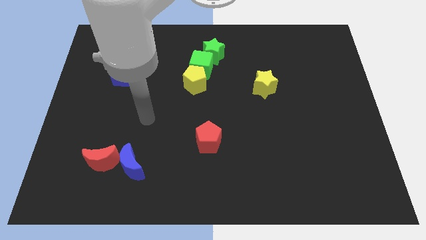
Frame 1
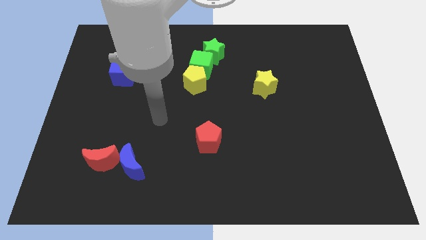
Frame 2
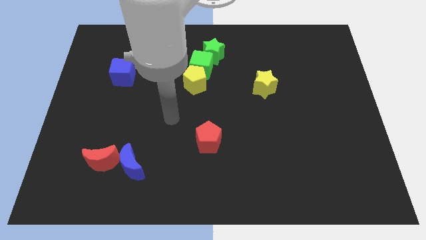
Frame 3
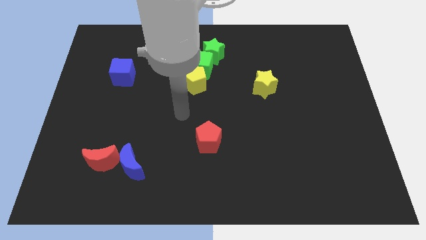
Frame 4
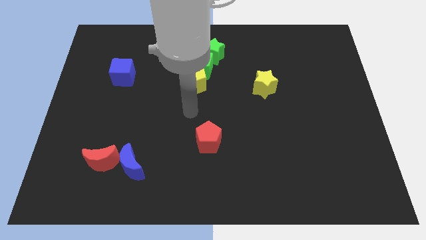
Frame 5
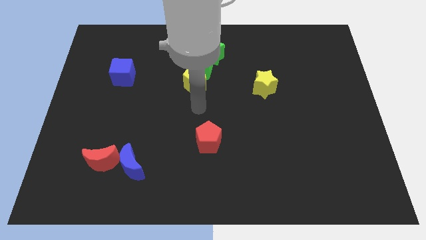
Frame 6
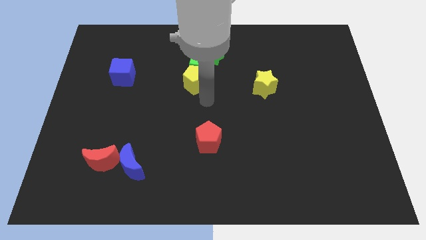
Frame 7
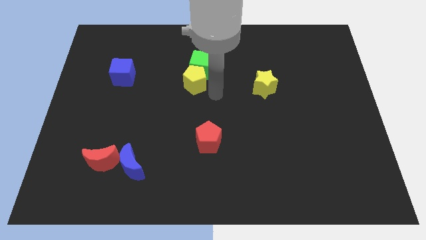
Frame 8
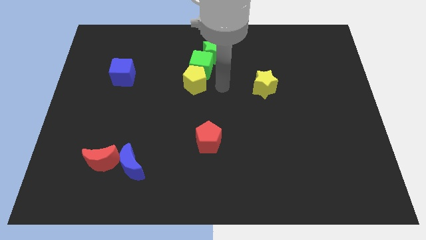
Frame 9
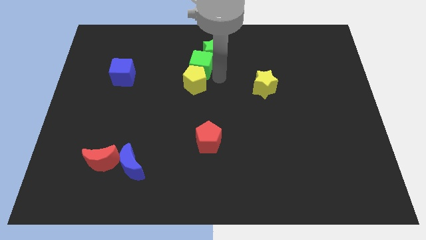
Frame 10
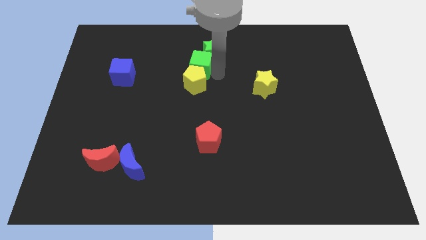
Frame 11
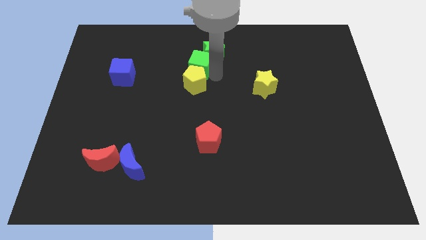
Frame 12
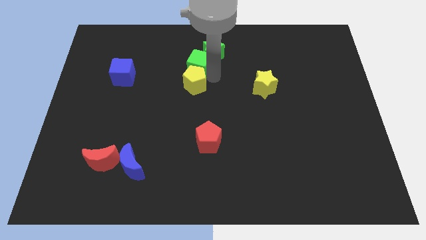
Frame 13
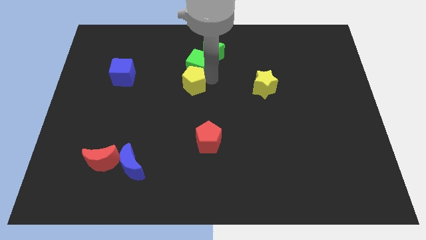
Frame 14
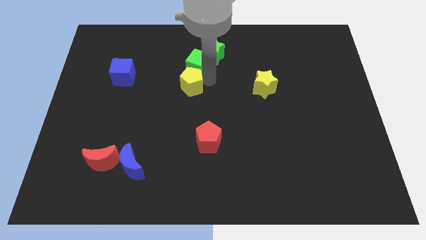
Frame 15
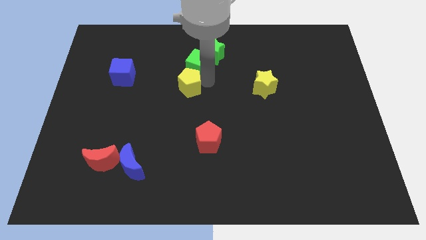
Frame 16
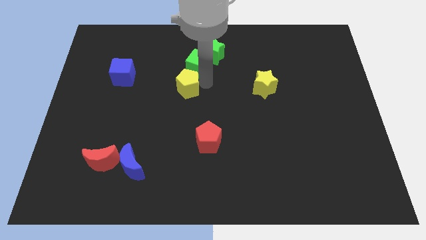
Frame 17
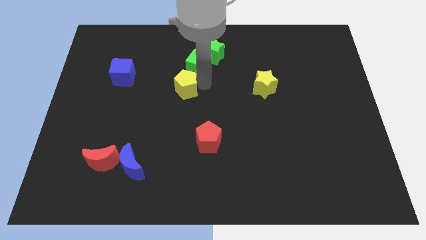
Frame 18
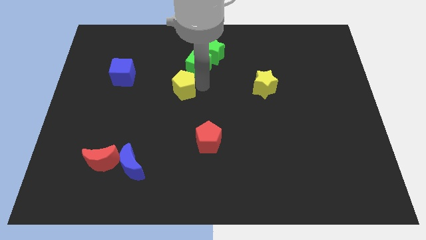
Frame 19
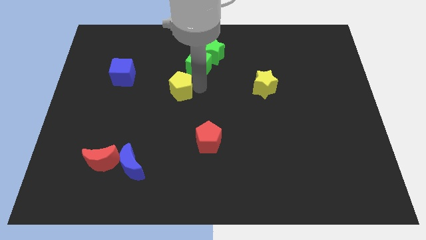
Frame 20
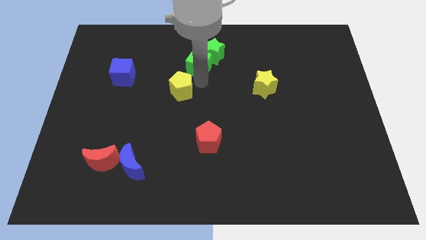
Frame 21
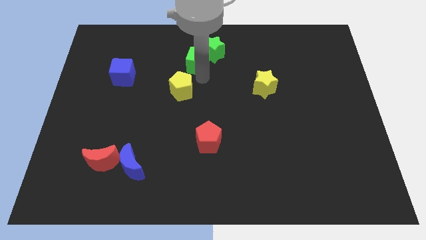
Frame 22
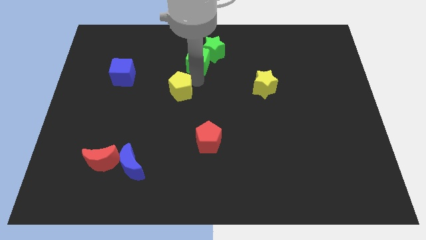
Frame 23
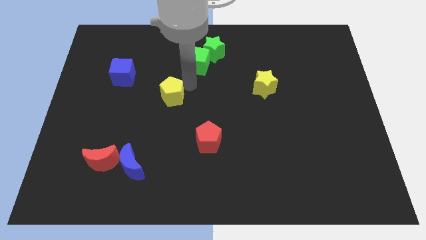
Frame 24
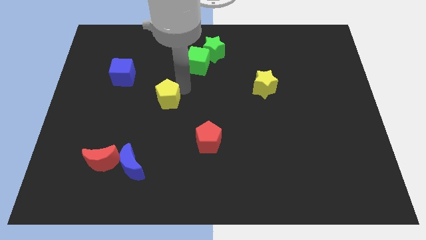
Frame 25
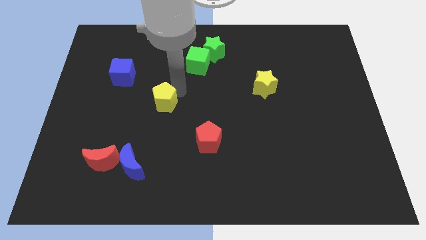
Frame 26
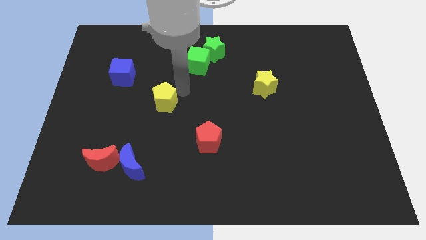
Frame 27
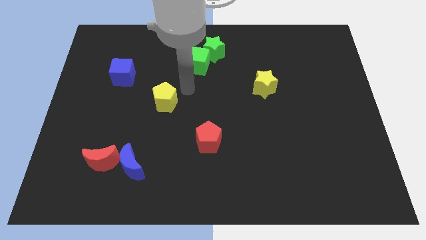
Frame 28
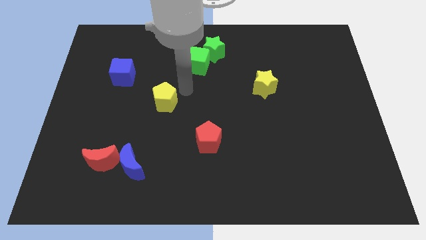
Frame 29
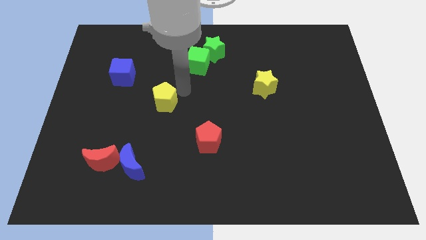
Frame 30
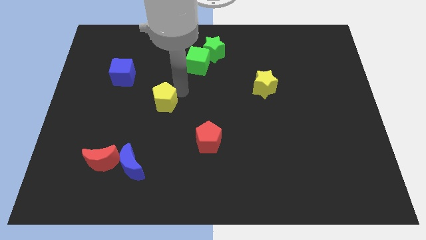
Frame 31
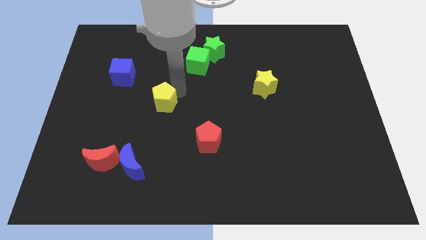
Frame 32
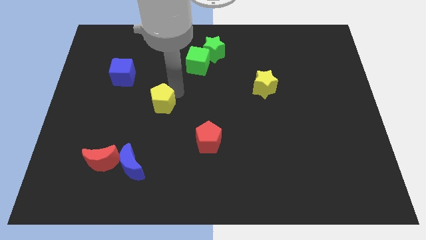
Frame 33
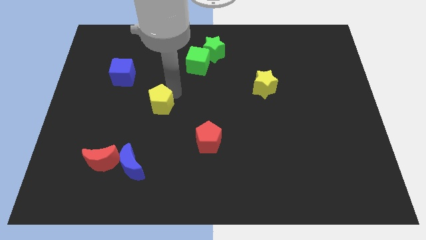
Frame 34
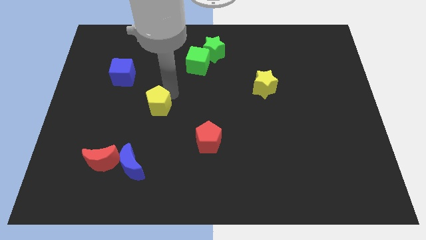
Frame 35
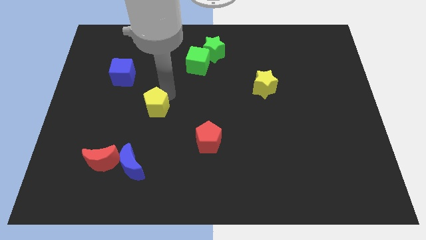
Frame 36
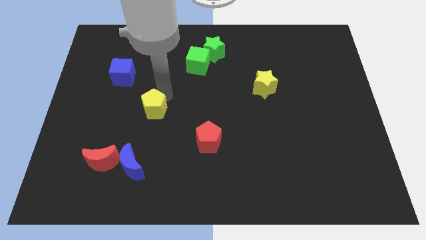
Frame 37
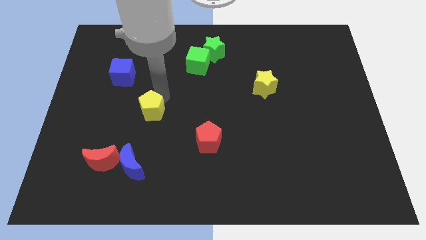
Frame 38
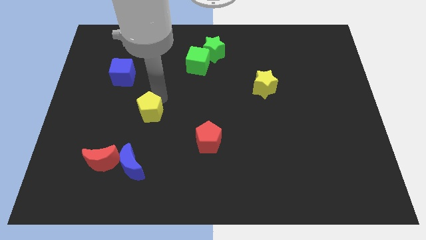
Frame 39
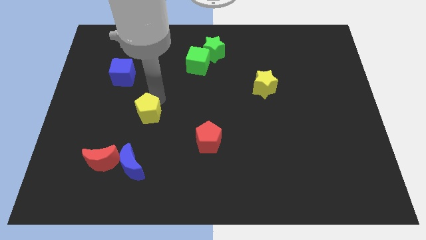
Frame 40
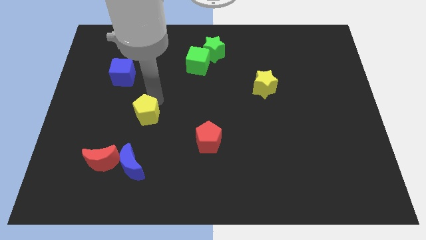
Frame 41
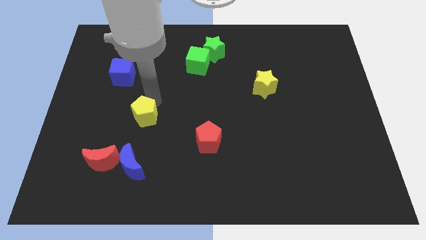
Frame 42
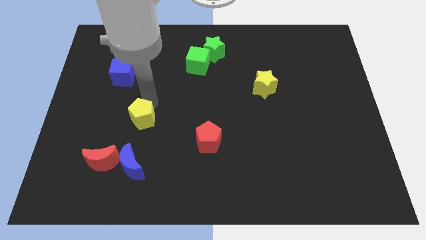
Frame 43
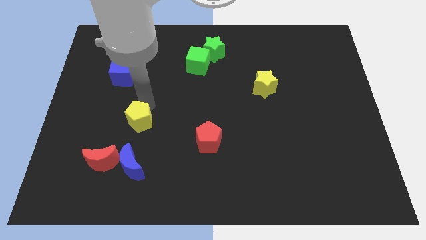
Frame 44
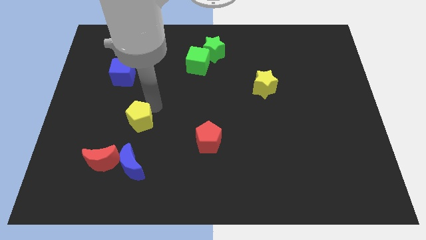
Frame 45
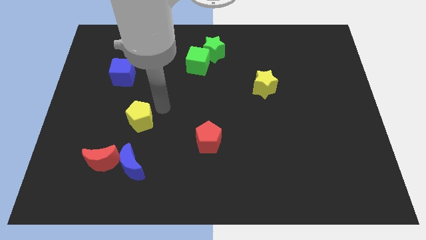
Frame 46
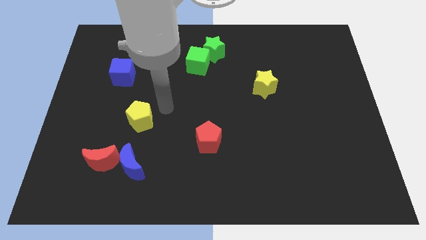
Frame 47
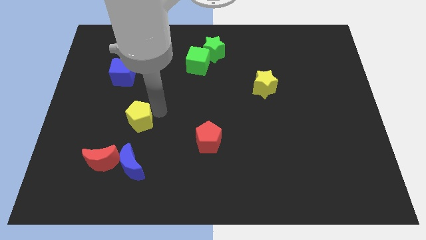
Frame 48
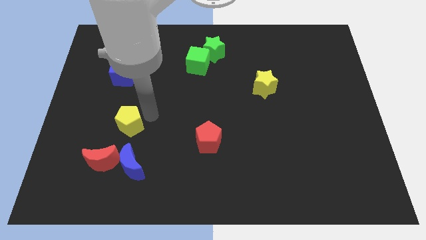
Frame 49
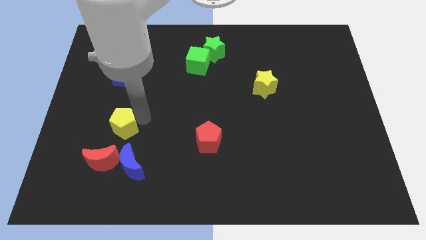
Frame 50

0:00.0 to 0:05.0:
slide the yellow pentagon diagonally down and left

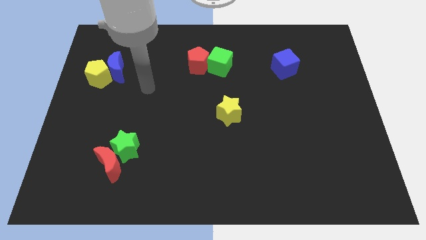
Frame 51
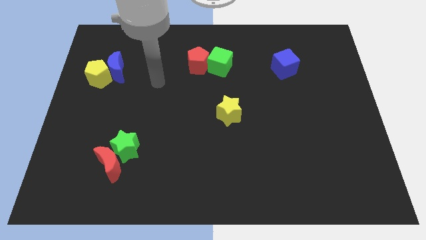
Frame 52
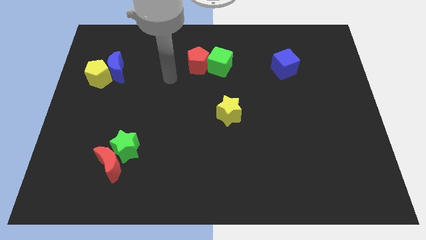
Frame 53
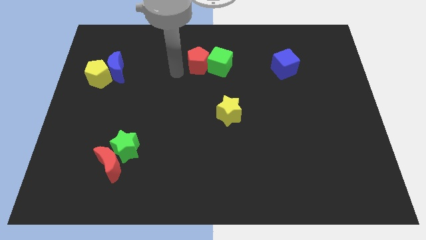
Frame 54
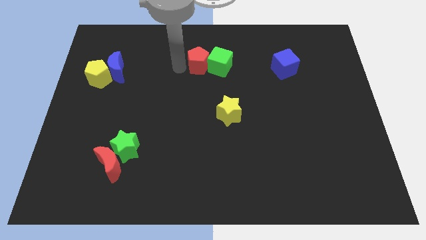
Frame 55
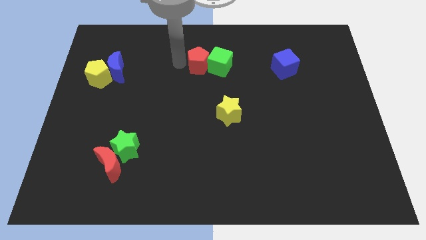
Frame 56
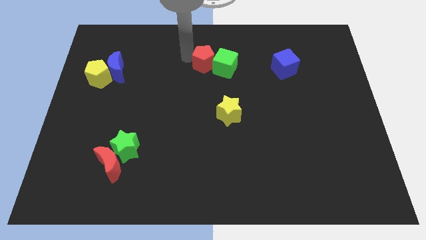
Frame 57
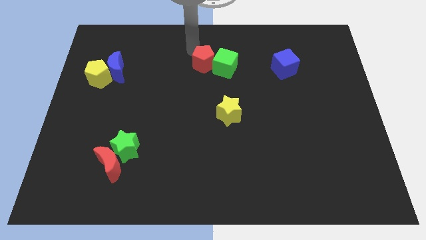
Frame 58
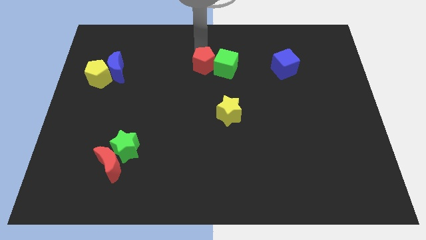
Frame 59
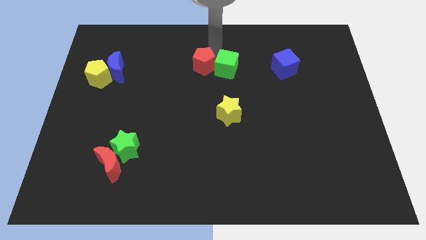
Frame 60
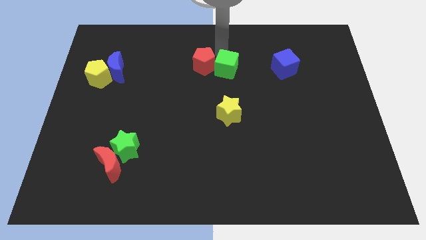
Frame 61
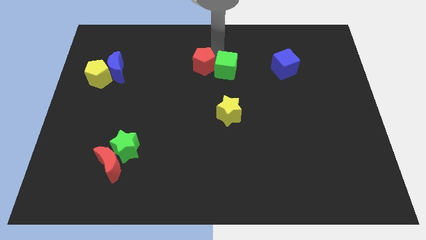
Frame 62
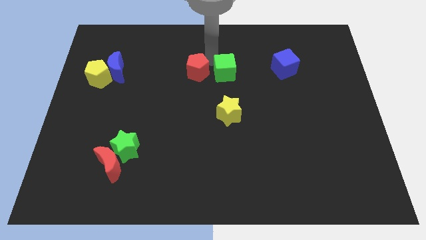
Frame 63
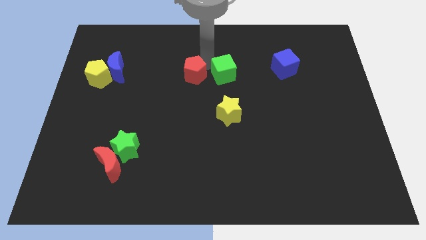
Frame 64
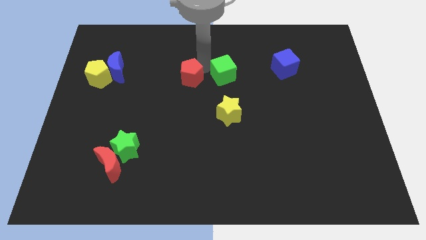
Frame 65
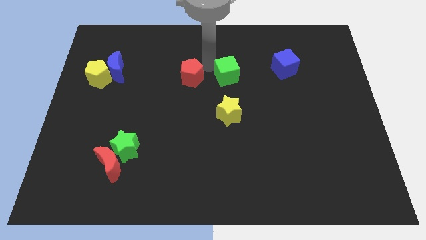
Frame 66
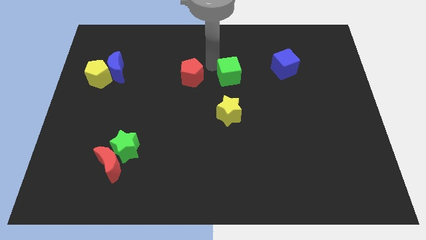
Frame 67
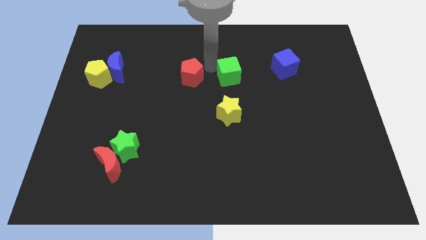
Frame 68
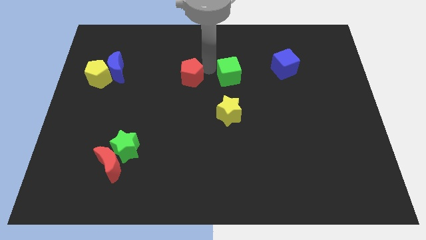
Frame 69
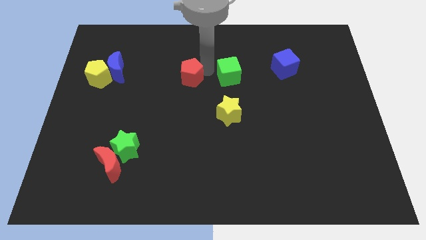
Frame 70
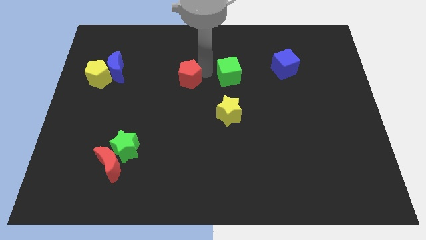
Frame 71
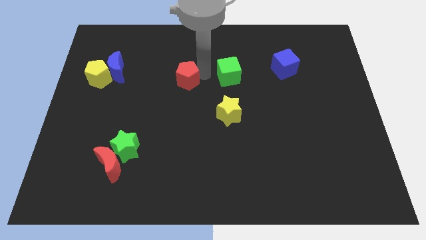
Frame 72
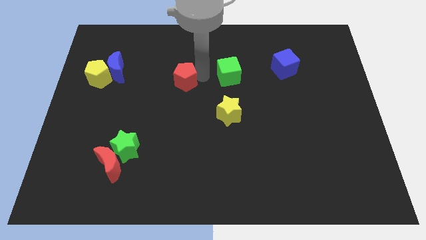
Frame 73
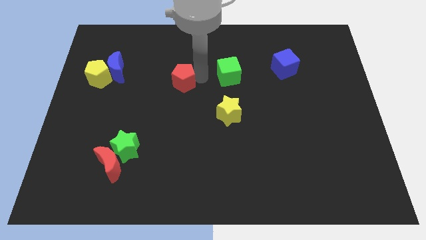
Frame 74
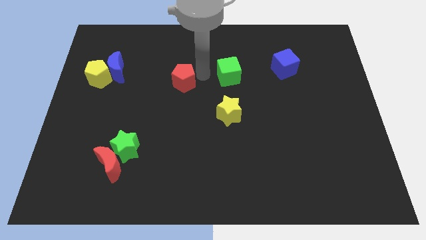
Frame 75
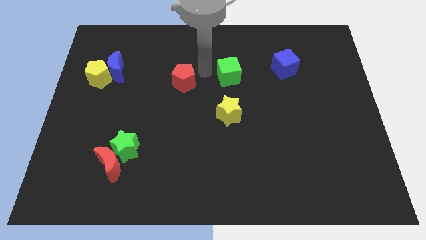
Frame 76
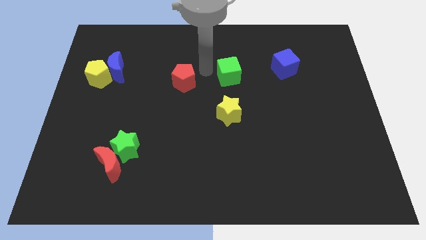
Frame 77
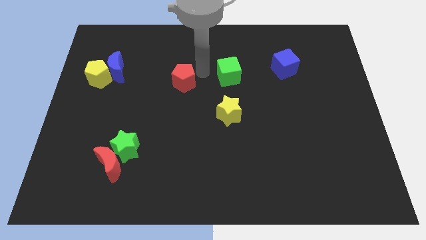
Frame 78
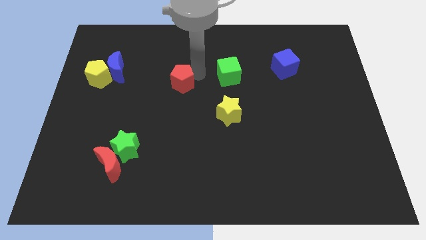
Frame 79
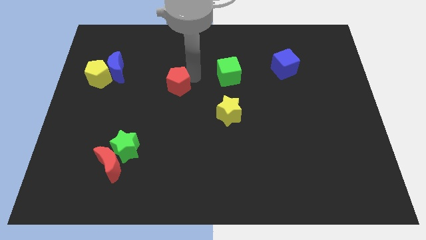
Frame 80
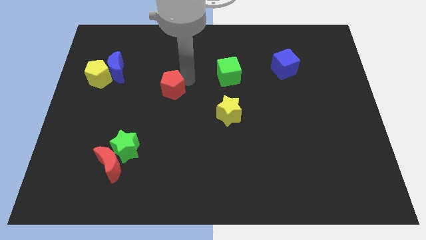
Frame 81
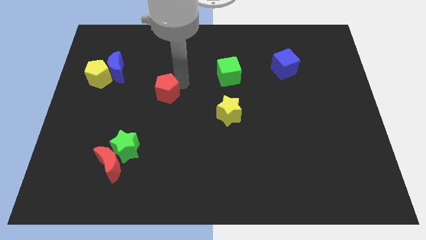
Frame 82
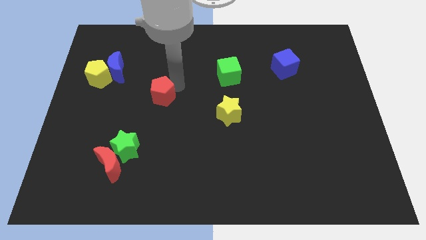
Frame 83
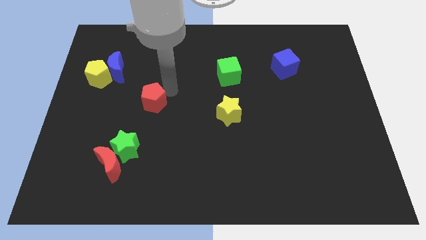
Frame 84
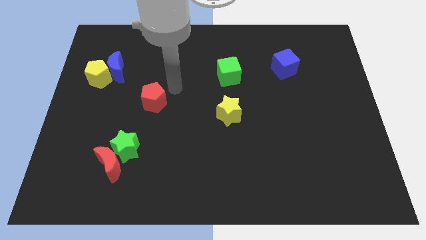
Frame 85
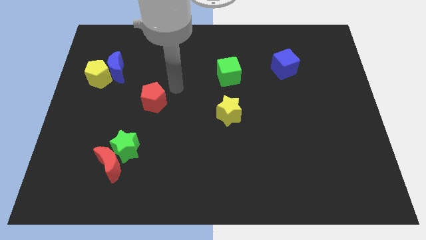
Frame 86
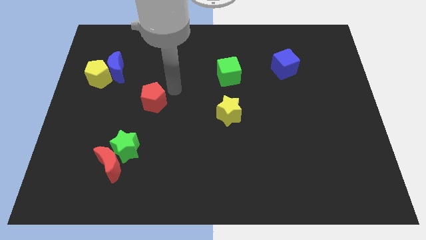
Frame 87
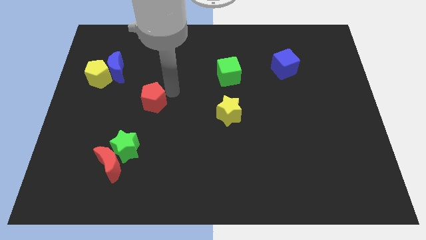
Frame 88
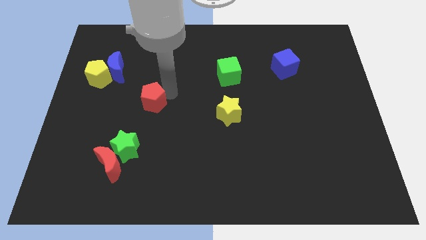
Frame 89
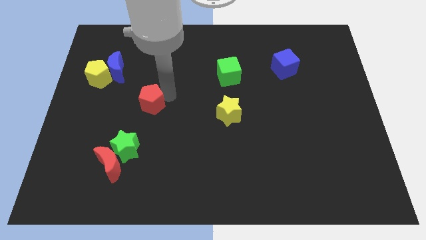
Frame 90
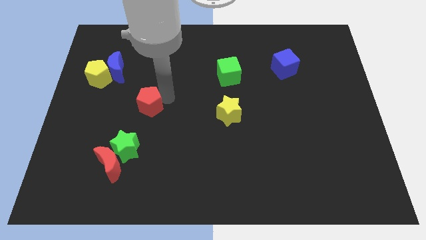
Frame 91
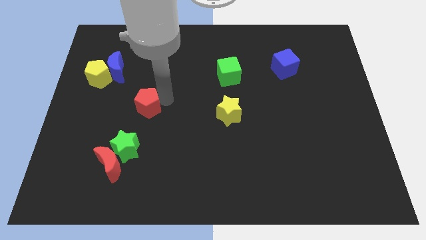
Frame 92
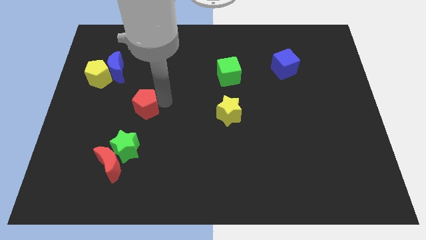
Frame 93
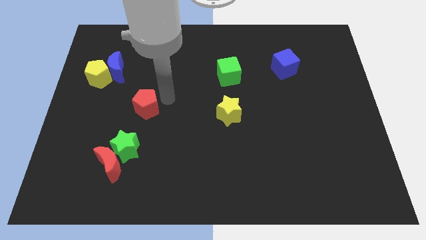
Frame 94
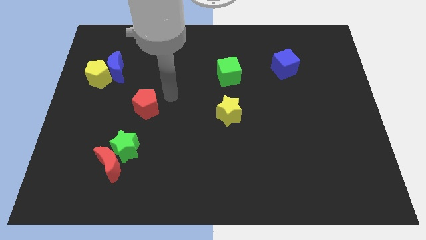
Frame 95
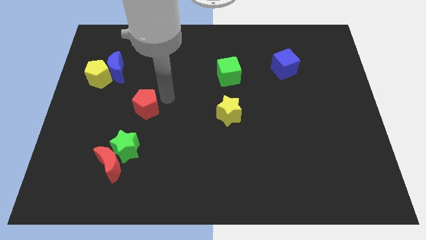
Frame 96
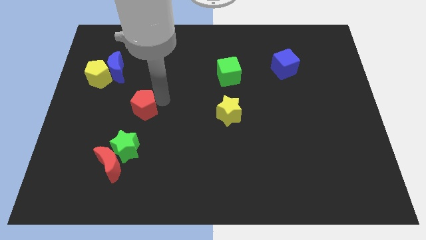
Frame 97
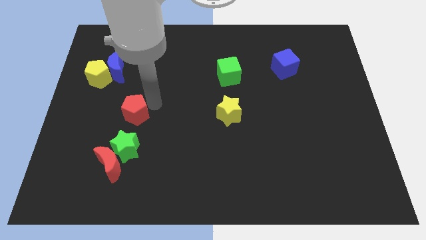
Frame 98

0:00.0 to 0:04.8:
slide the red pentagon downwards and to the left
